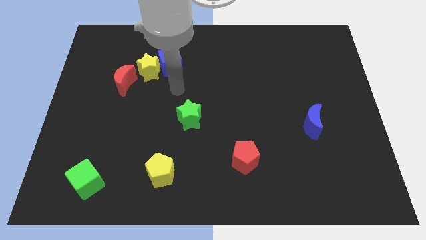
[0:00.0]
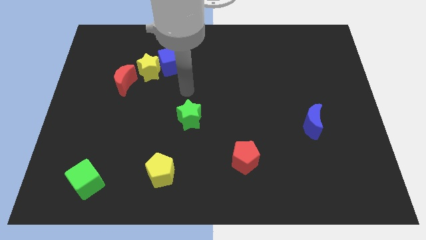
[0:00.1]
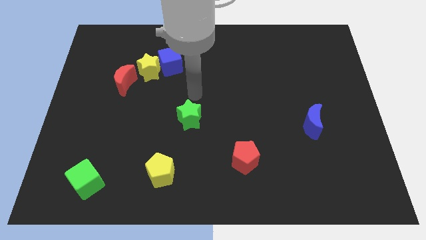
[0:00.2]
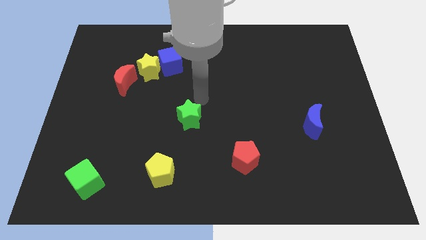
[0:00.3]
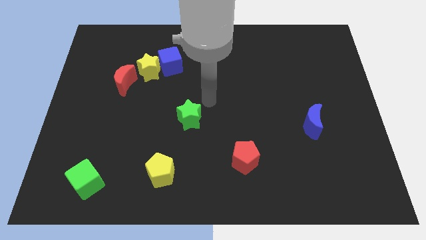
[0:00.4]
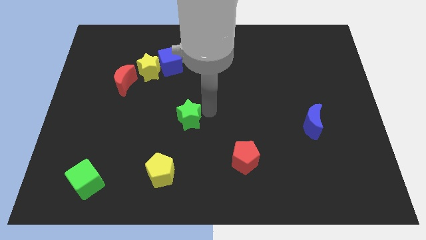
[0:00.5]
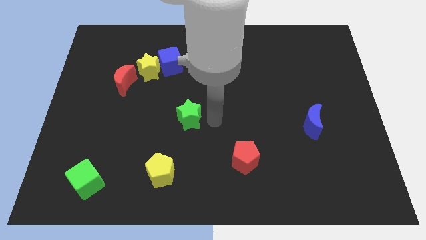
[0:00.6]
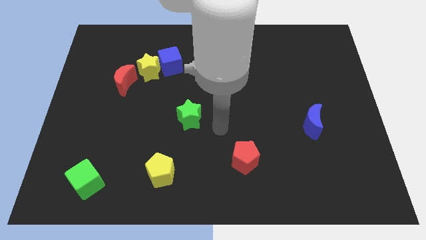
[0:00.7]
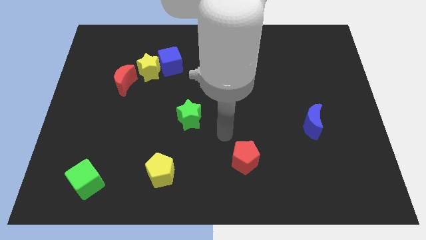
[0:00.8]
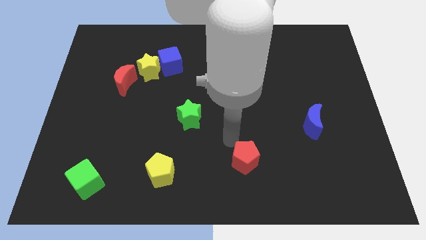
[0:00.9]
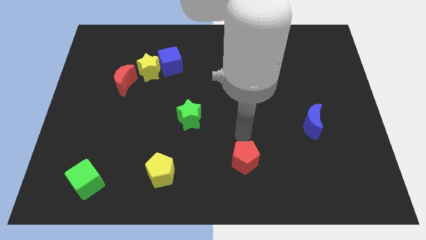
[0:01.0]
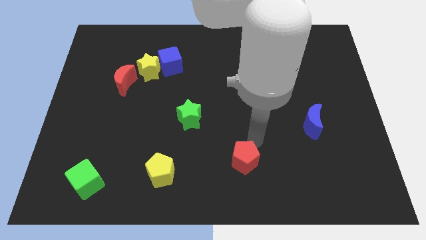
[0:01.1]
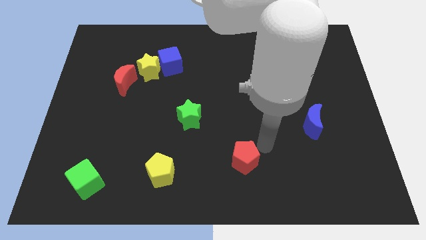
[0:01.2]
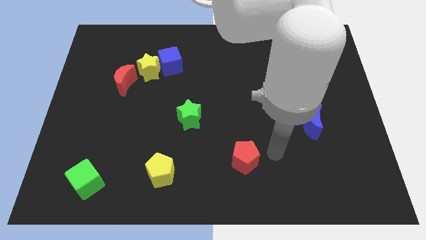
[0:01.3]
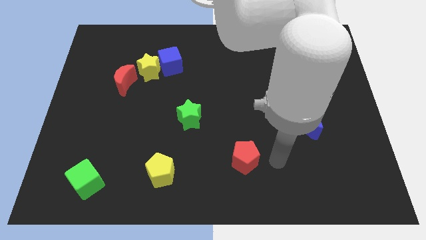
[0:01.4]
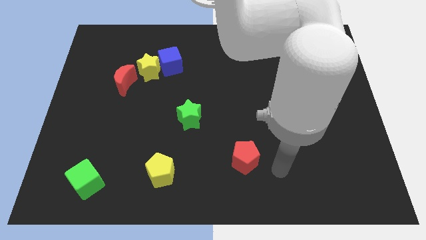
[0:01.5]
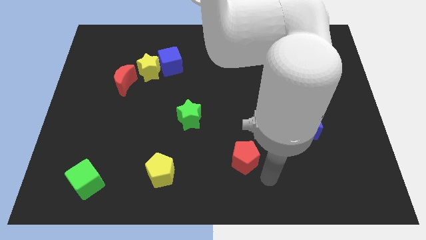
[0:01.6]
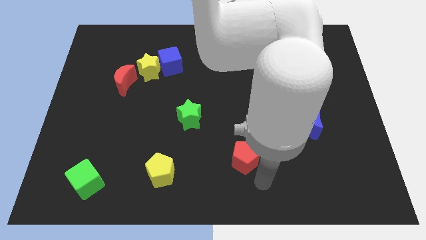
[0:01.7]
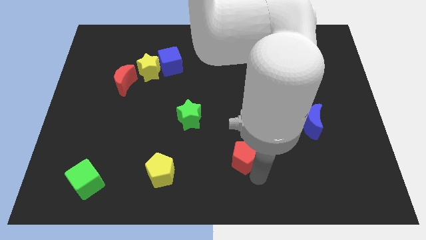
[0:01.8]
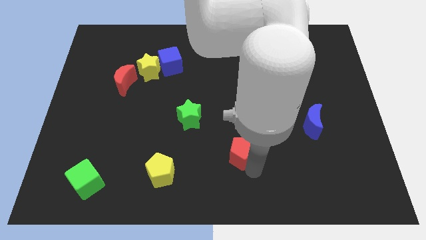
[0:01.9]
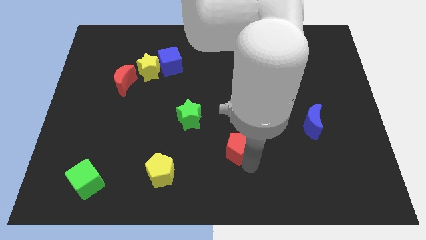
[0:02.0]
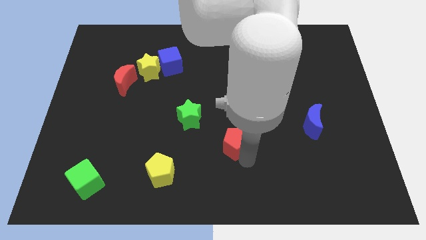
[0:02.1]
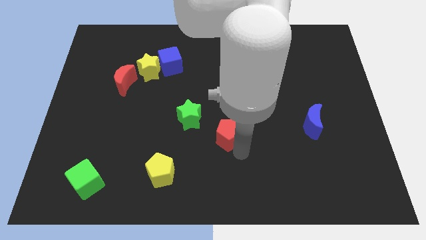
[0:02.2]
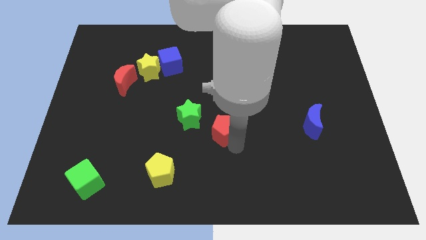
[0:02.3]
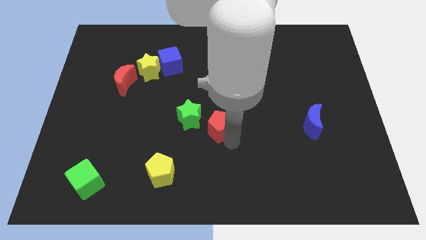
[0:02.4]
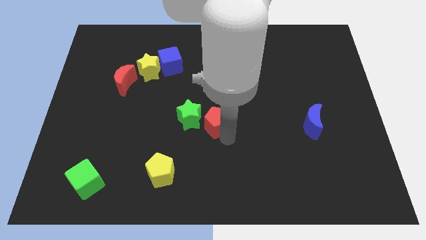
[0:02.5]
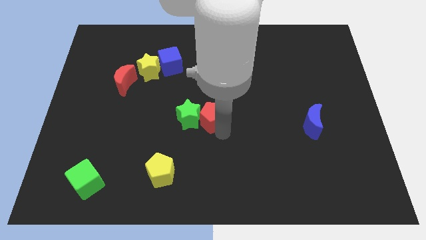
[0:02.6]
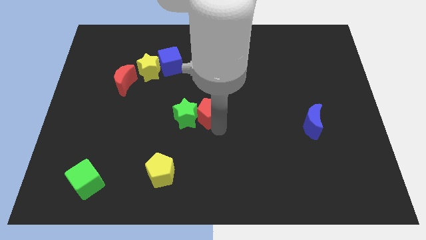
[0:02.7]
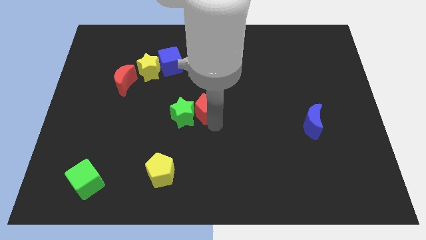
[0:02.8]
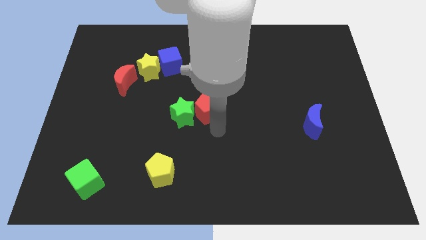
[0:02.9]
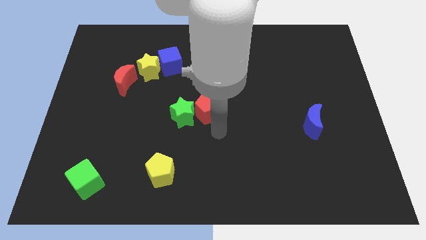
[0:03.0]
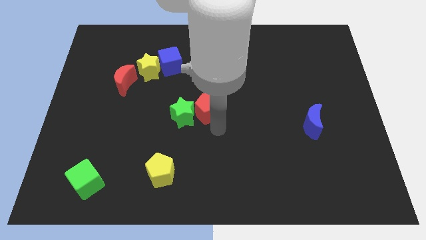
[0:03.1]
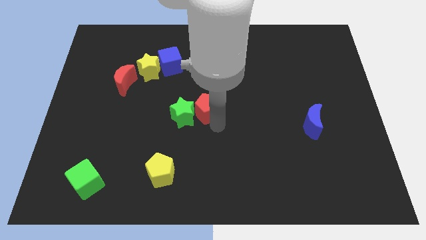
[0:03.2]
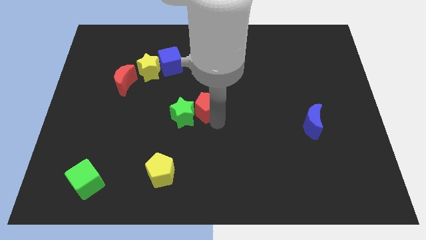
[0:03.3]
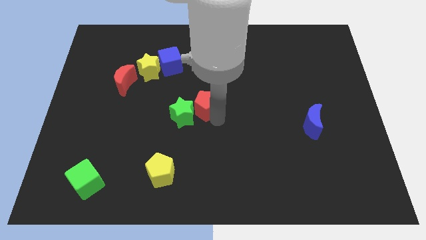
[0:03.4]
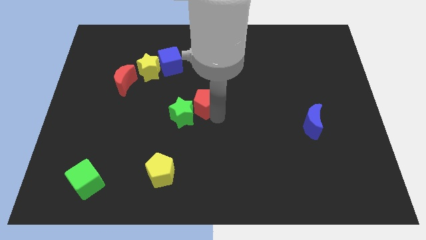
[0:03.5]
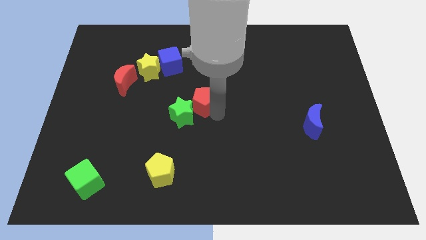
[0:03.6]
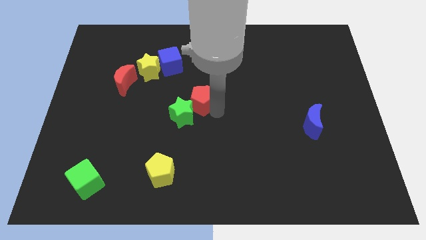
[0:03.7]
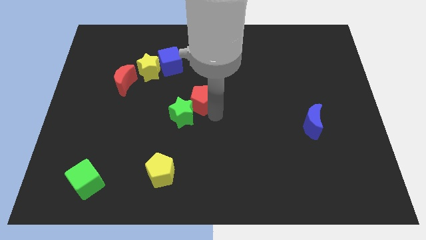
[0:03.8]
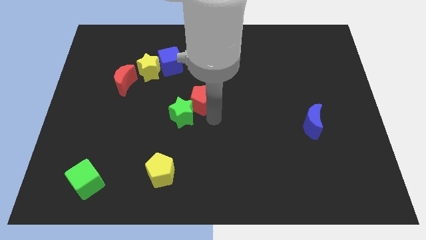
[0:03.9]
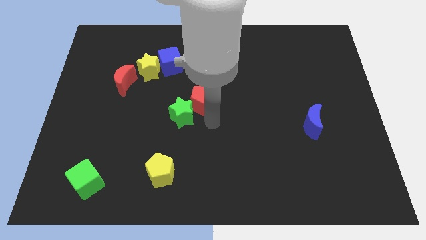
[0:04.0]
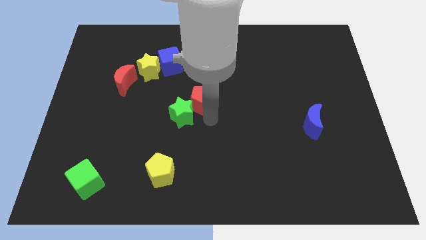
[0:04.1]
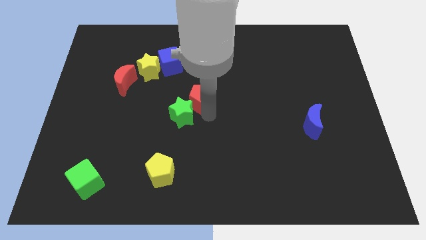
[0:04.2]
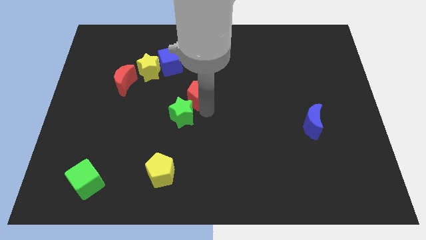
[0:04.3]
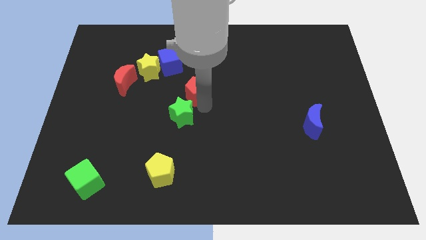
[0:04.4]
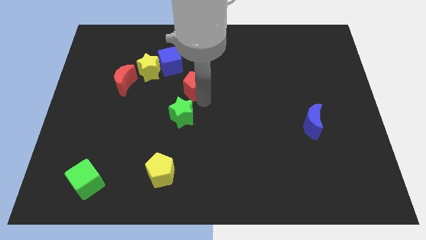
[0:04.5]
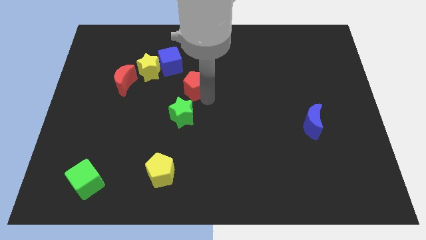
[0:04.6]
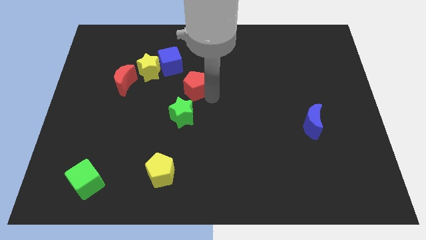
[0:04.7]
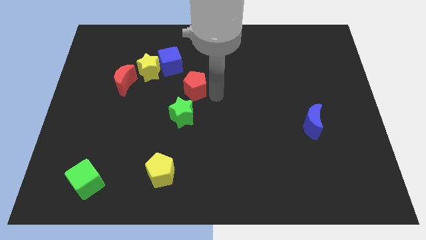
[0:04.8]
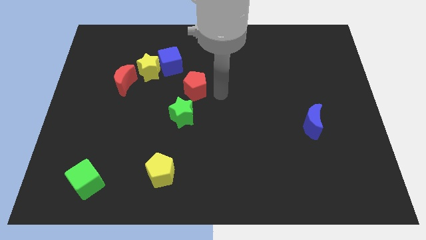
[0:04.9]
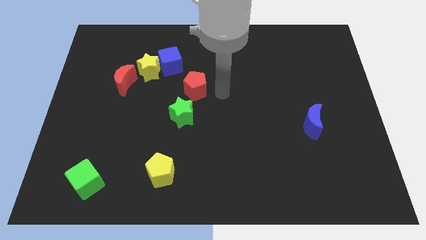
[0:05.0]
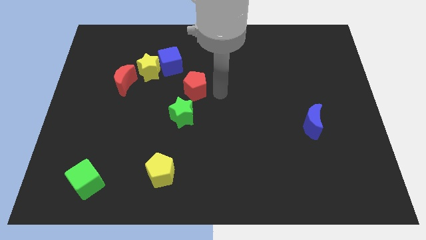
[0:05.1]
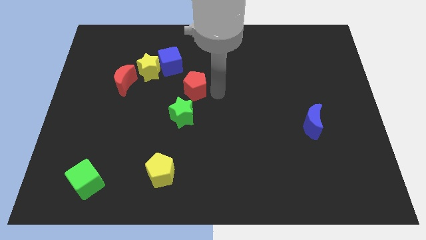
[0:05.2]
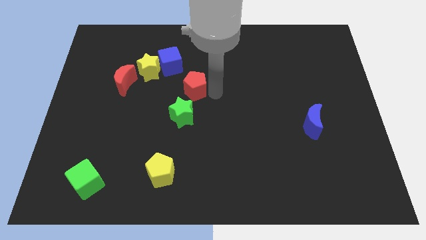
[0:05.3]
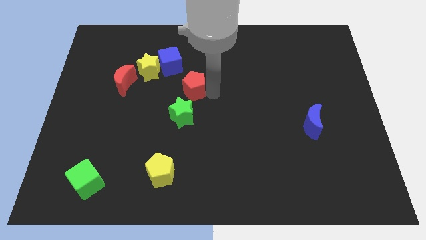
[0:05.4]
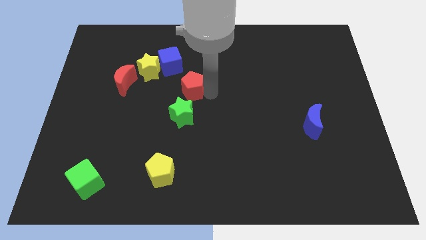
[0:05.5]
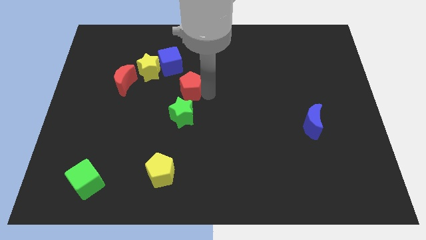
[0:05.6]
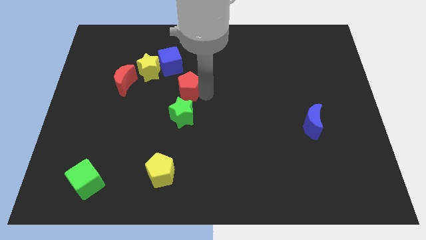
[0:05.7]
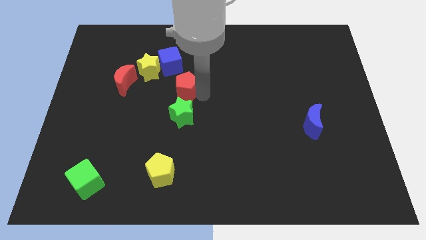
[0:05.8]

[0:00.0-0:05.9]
slide the red pentagon to the right of the red moon

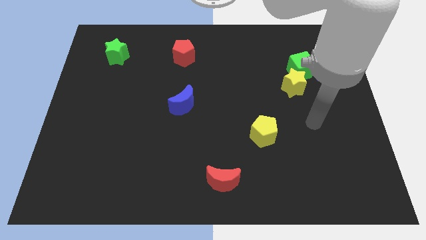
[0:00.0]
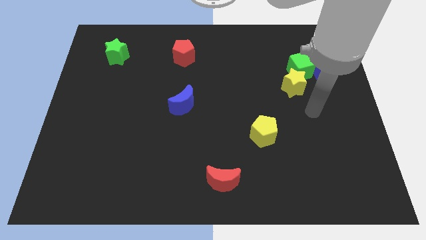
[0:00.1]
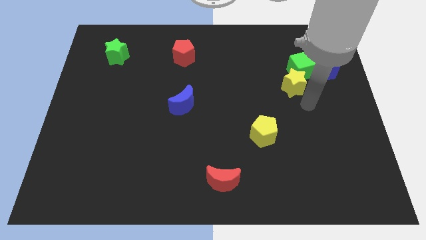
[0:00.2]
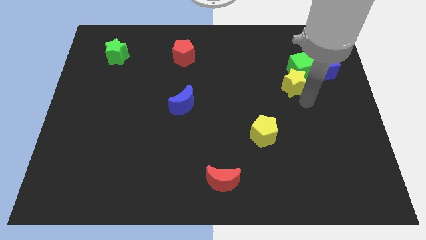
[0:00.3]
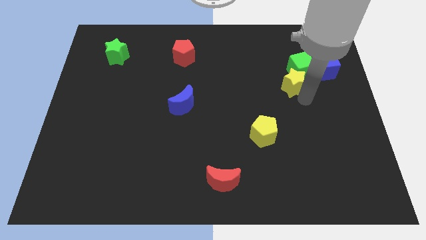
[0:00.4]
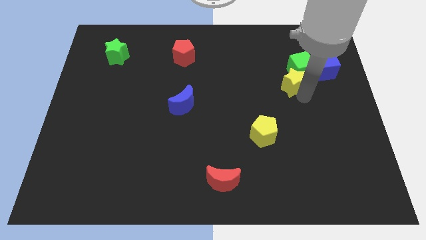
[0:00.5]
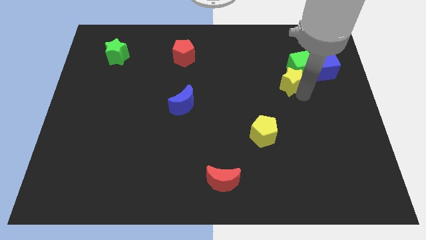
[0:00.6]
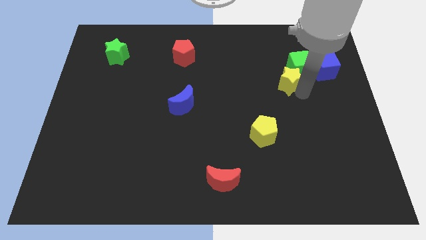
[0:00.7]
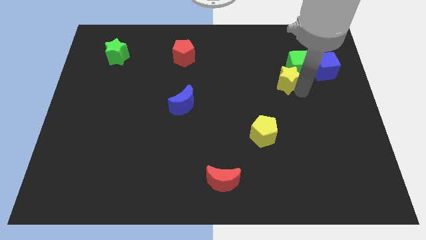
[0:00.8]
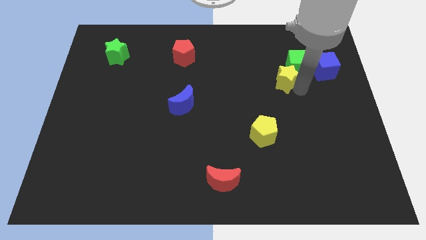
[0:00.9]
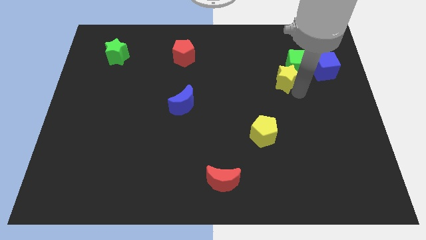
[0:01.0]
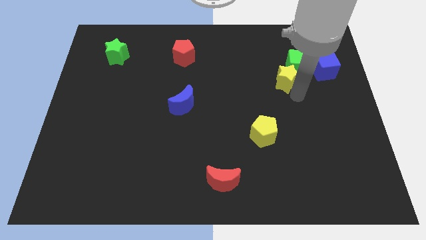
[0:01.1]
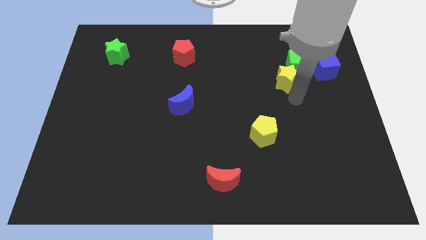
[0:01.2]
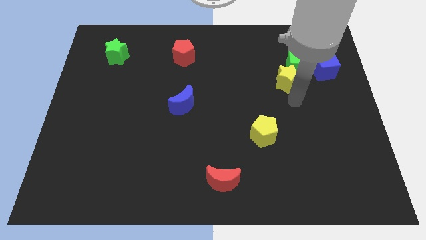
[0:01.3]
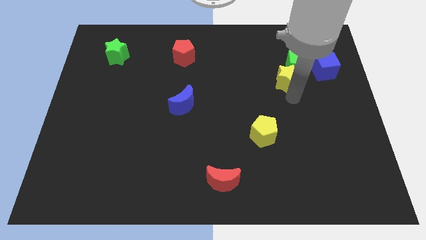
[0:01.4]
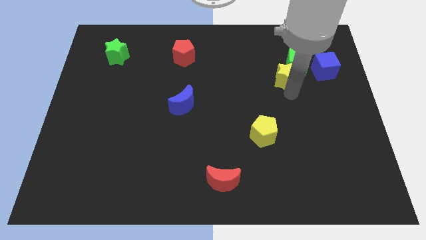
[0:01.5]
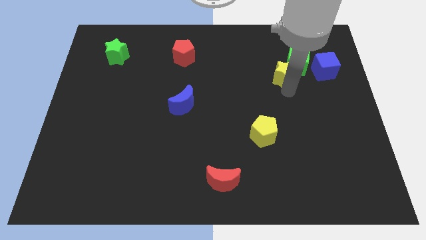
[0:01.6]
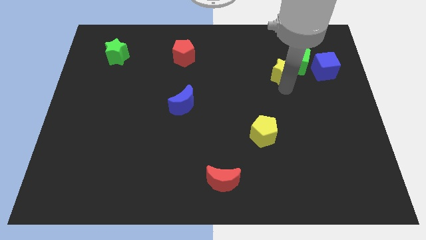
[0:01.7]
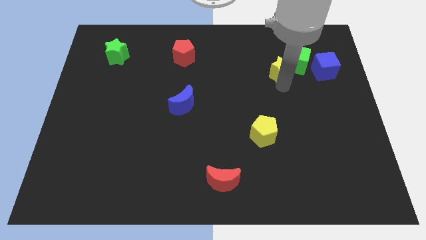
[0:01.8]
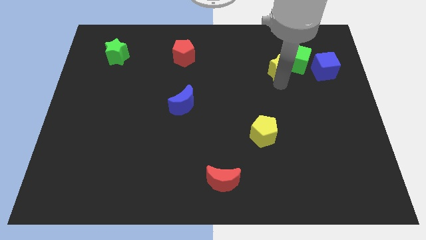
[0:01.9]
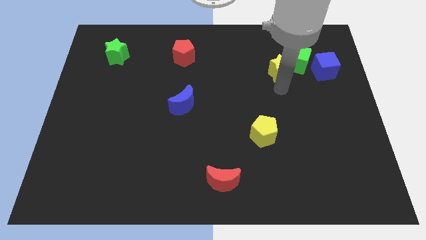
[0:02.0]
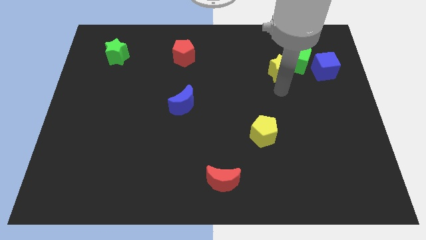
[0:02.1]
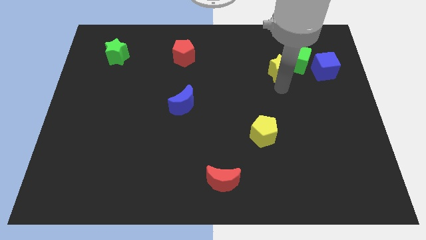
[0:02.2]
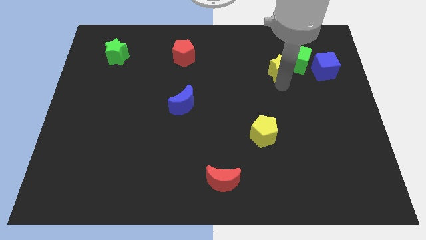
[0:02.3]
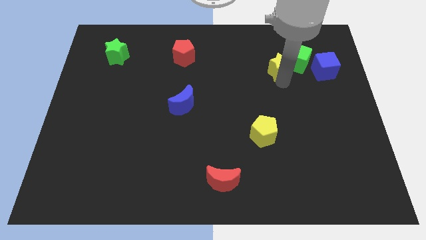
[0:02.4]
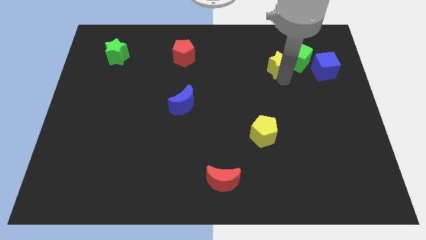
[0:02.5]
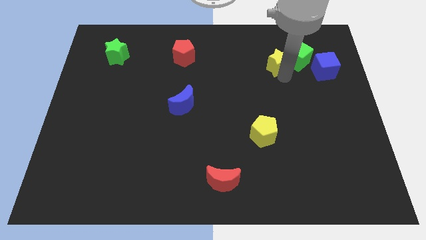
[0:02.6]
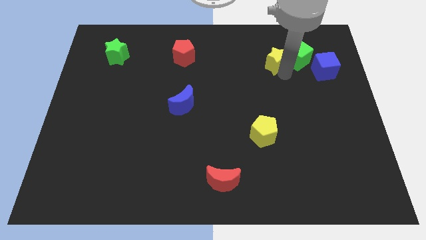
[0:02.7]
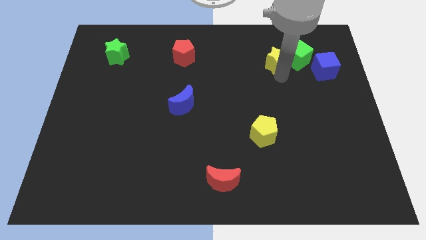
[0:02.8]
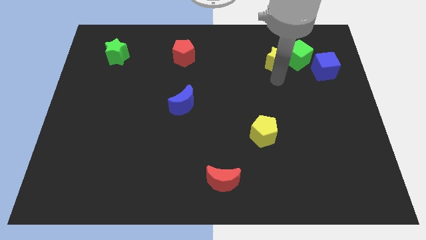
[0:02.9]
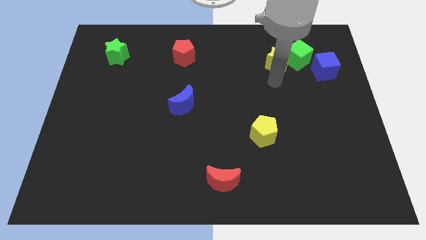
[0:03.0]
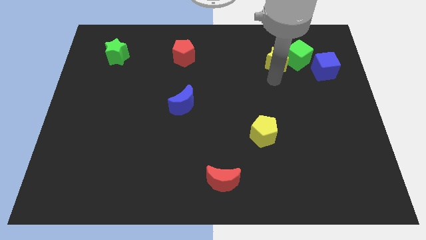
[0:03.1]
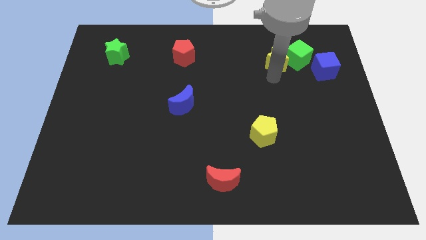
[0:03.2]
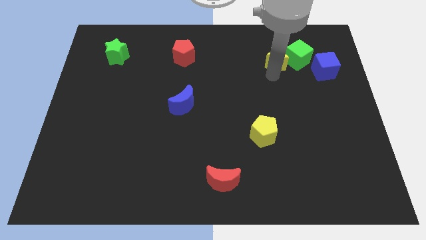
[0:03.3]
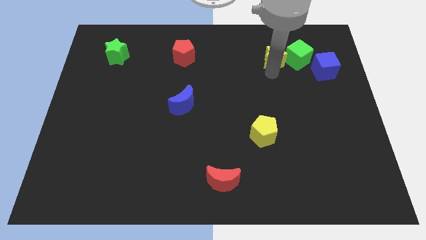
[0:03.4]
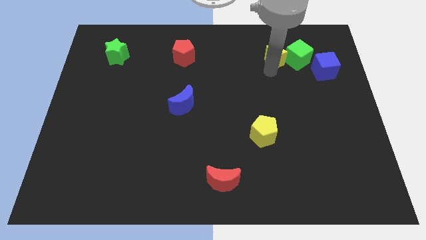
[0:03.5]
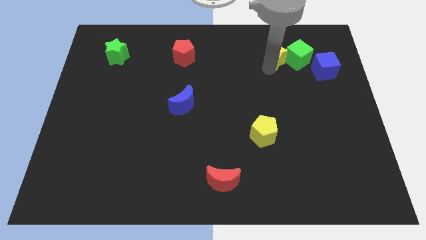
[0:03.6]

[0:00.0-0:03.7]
move the yellow star to the top left of the green cube
